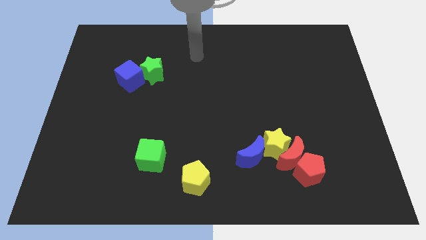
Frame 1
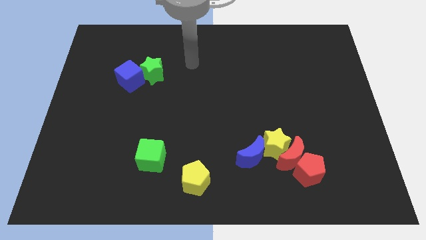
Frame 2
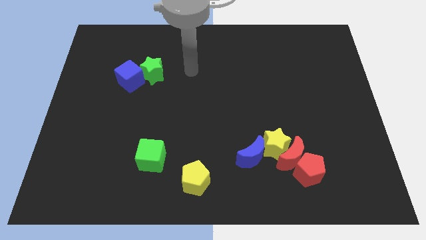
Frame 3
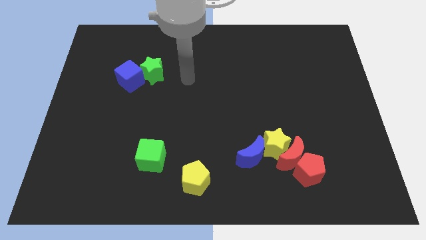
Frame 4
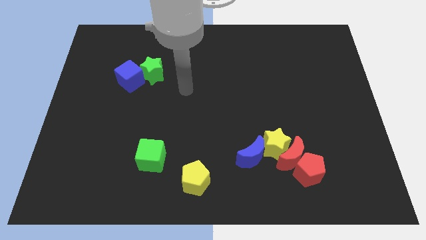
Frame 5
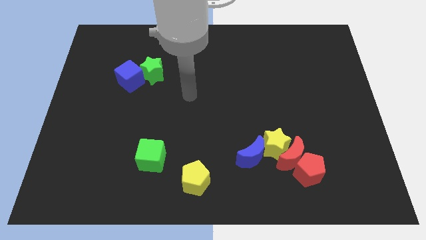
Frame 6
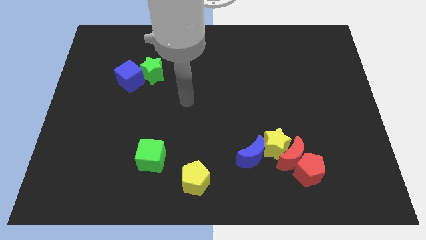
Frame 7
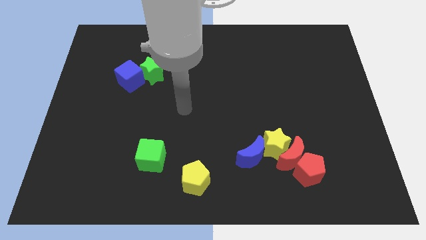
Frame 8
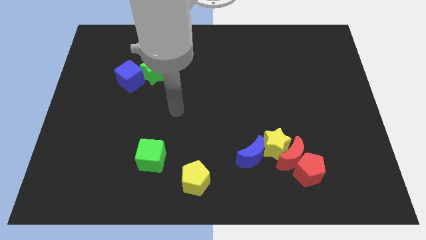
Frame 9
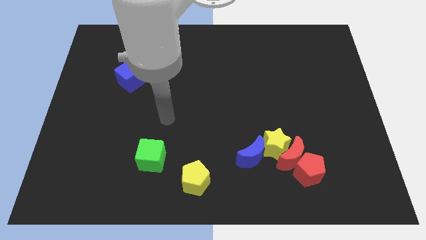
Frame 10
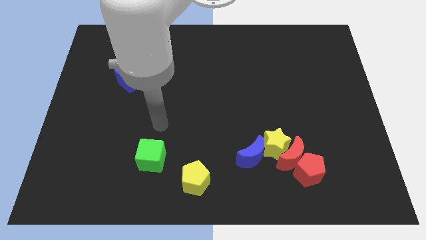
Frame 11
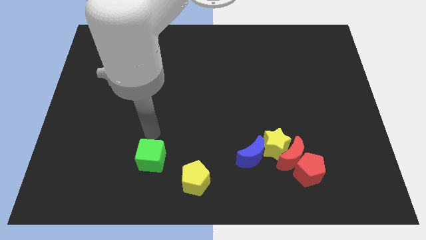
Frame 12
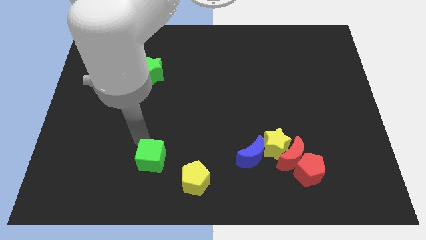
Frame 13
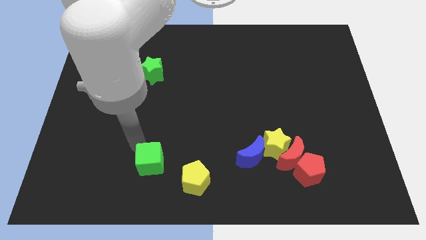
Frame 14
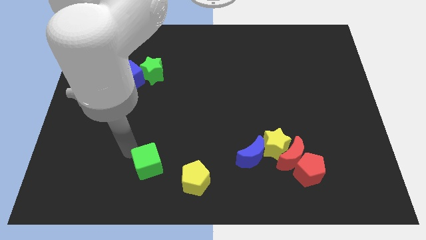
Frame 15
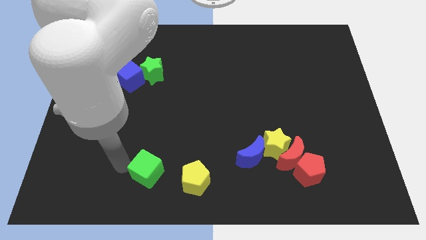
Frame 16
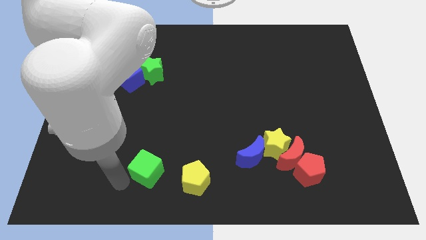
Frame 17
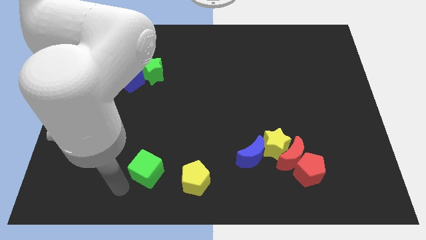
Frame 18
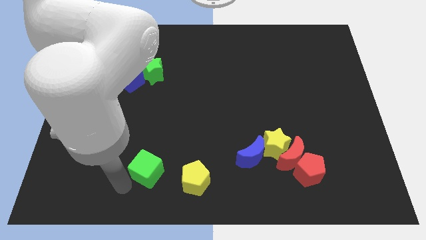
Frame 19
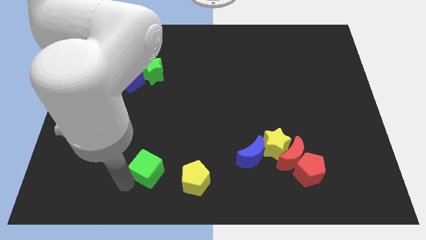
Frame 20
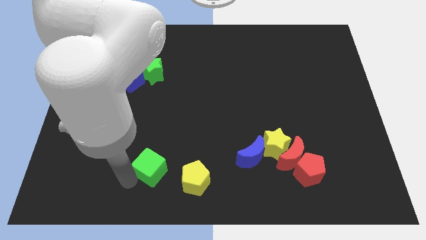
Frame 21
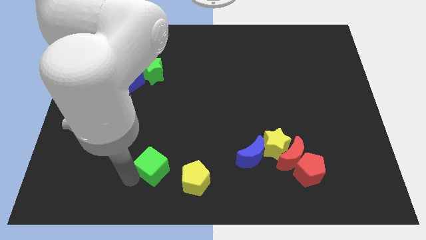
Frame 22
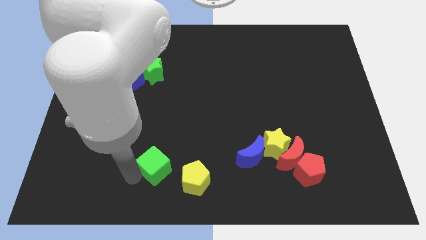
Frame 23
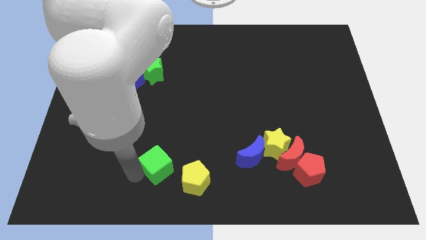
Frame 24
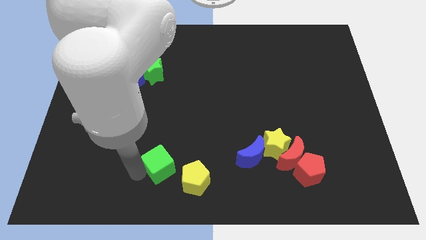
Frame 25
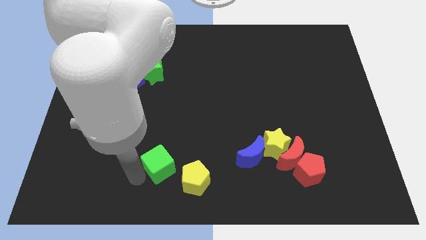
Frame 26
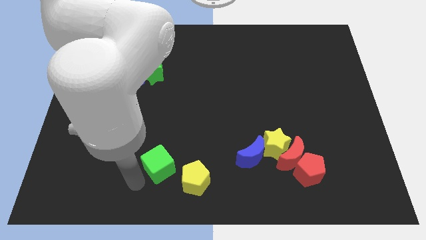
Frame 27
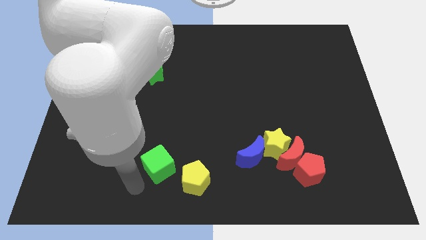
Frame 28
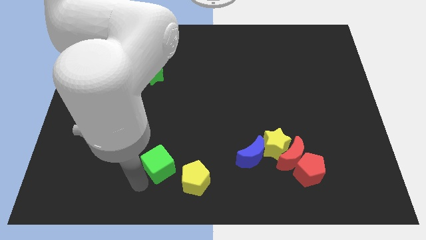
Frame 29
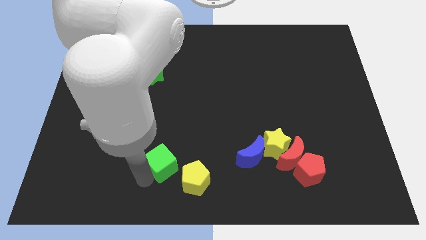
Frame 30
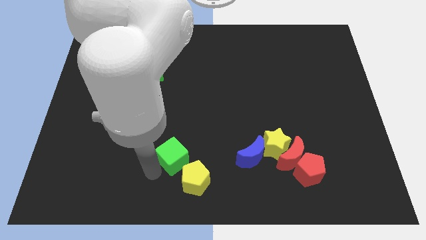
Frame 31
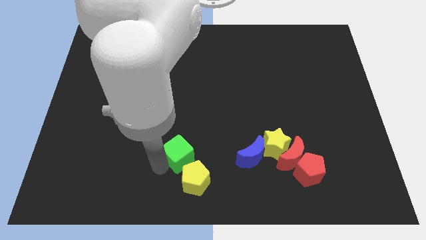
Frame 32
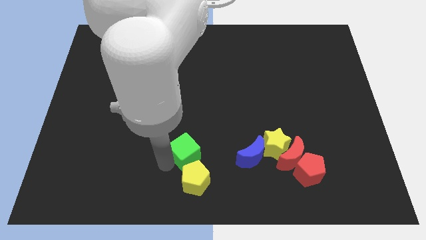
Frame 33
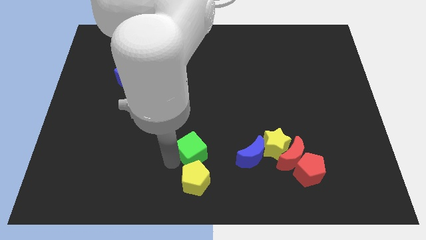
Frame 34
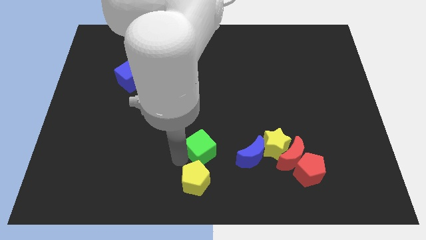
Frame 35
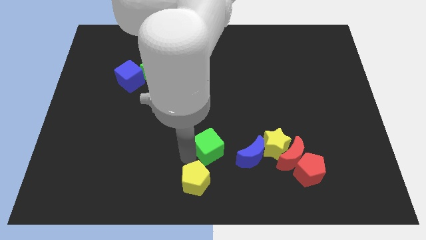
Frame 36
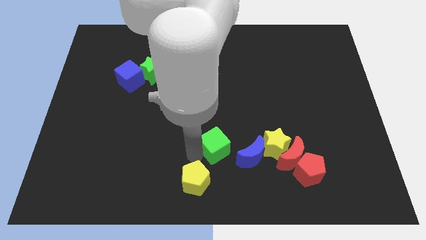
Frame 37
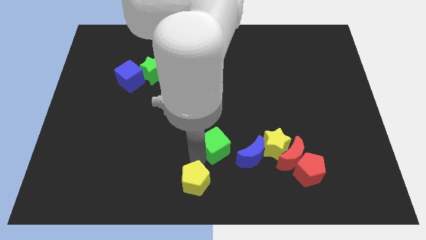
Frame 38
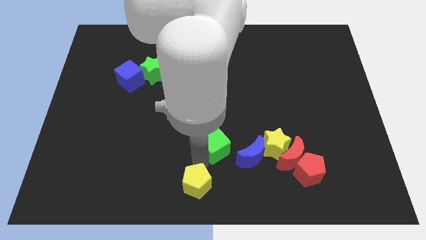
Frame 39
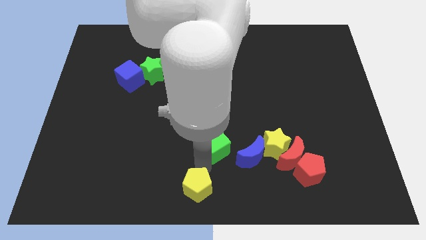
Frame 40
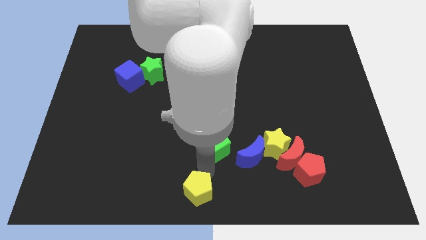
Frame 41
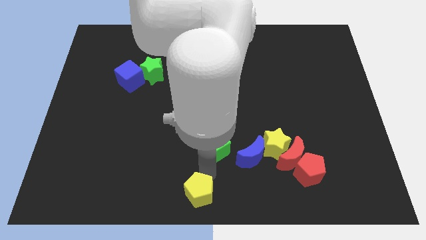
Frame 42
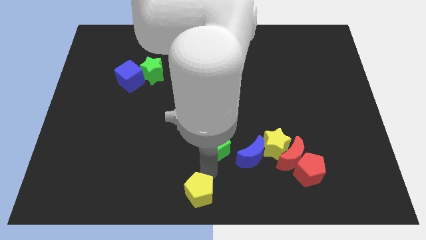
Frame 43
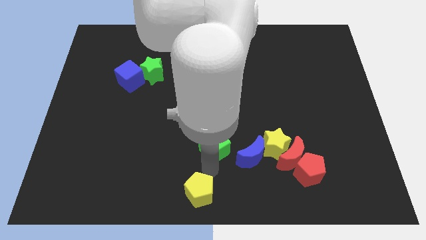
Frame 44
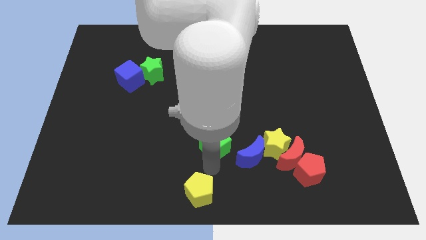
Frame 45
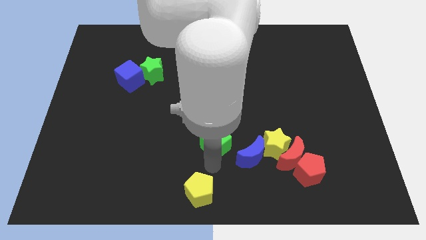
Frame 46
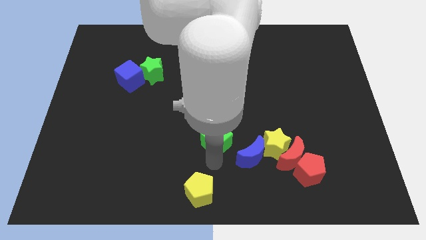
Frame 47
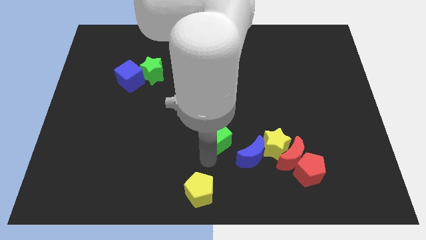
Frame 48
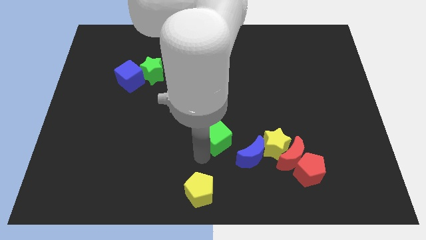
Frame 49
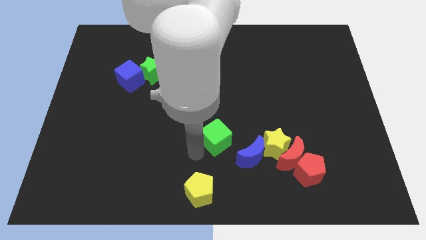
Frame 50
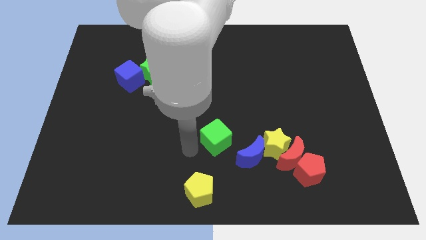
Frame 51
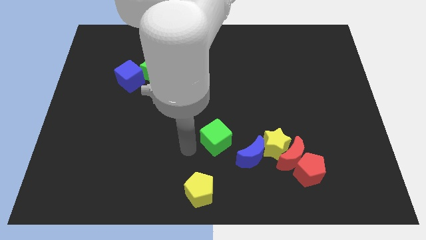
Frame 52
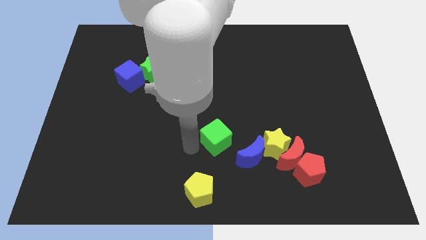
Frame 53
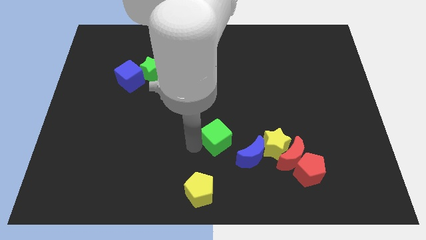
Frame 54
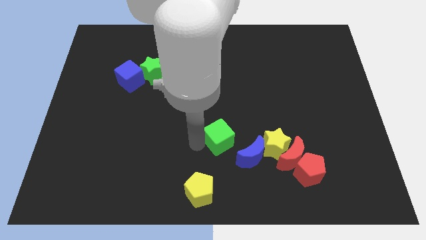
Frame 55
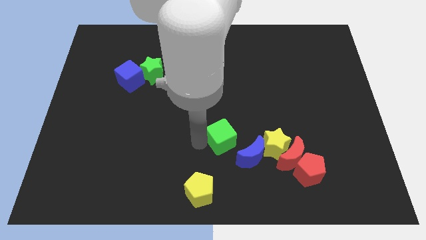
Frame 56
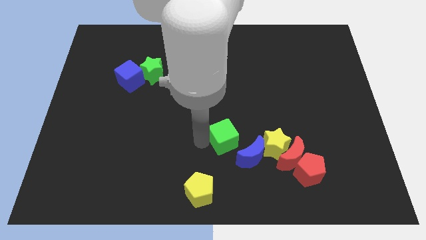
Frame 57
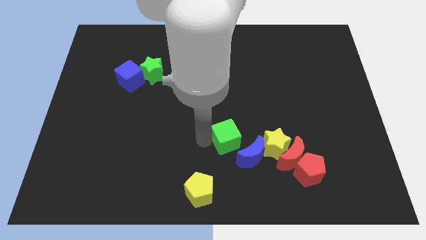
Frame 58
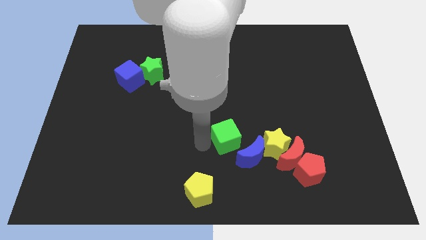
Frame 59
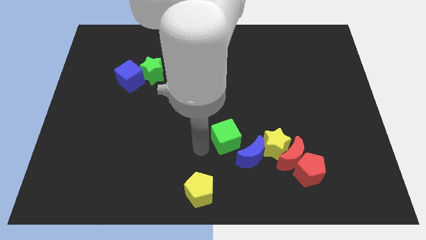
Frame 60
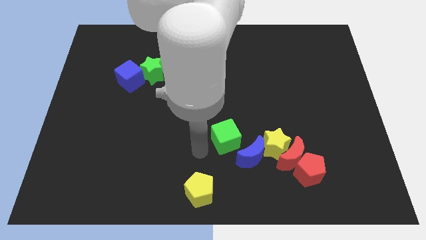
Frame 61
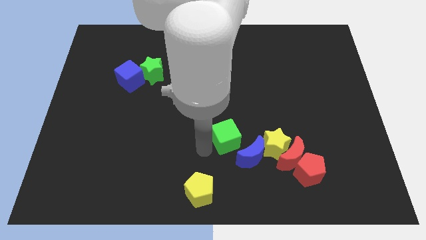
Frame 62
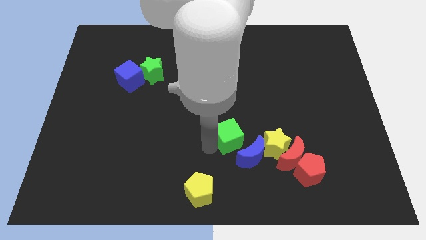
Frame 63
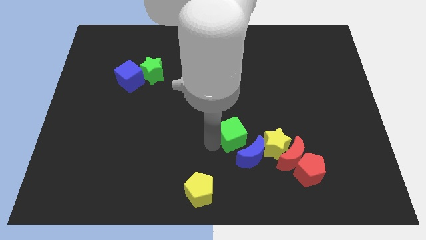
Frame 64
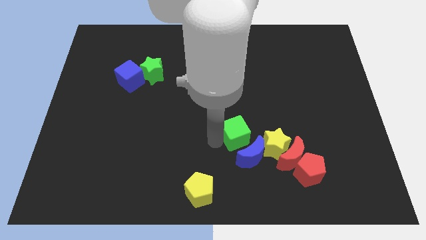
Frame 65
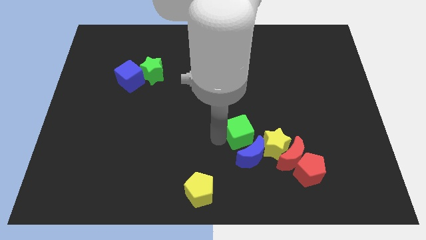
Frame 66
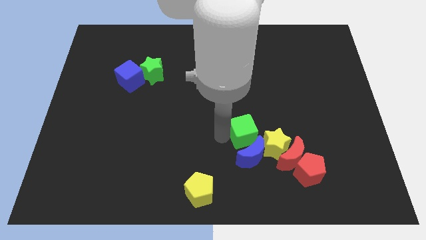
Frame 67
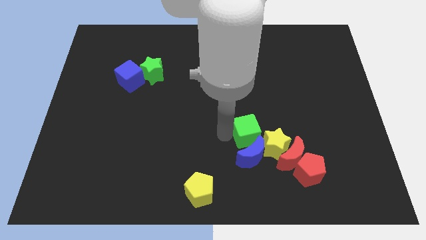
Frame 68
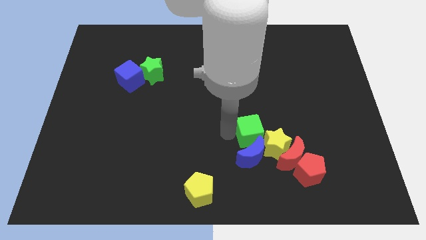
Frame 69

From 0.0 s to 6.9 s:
move the green cube next to the yellow star
